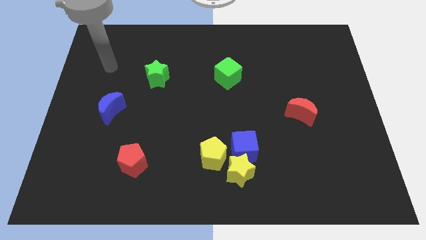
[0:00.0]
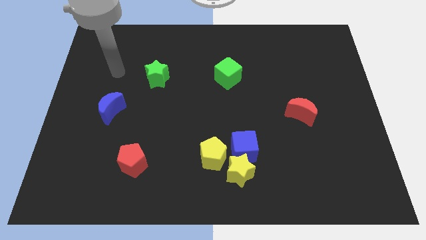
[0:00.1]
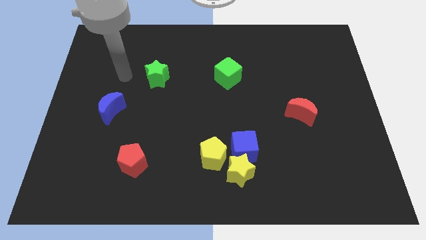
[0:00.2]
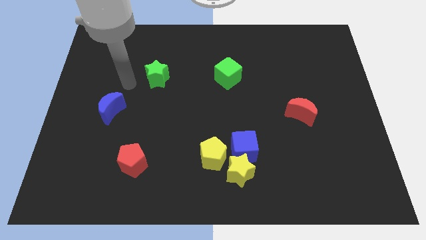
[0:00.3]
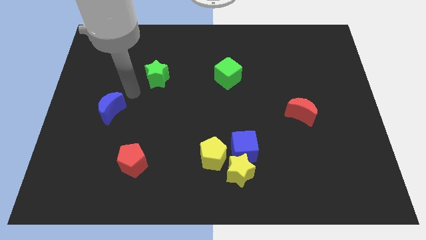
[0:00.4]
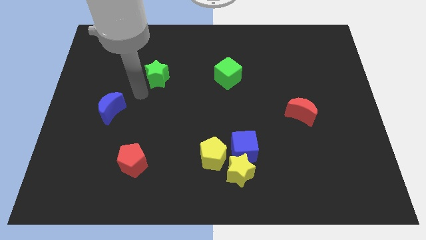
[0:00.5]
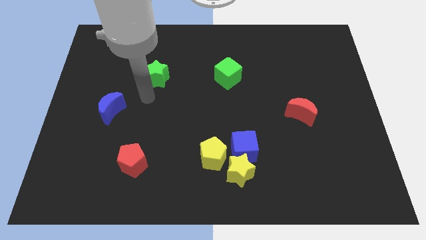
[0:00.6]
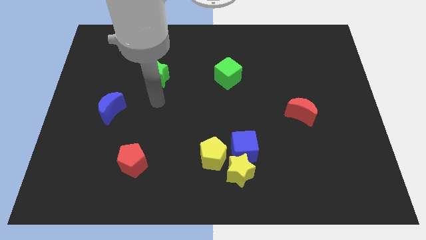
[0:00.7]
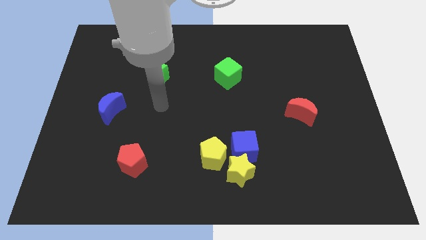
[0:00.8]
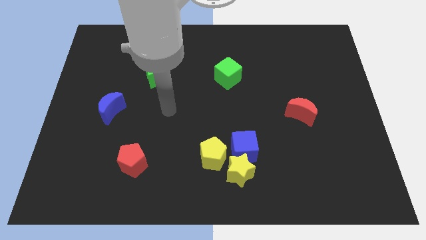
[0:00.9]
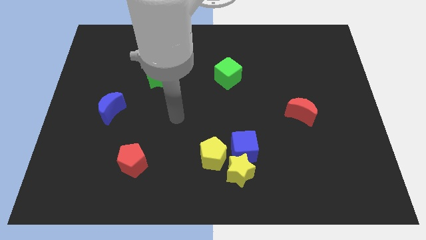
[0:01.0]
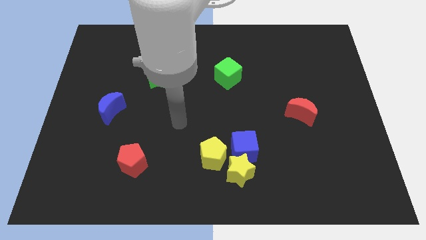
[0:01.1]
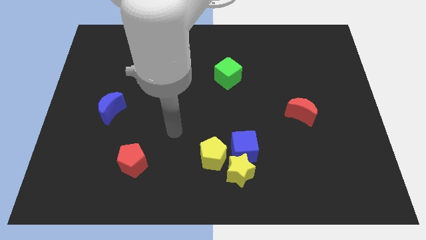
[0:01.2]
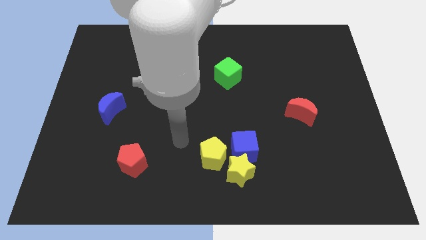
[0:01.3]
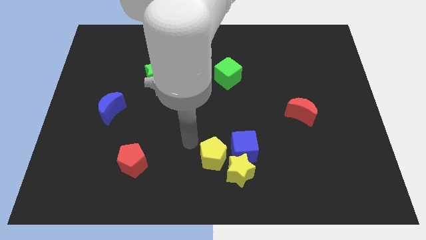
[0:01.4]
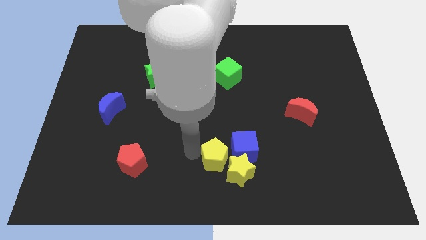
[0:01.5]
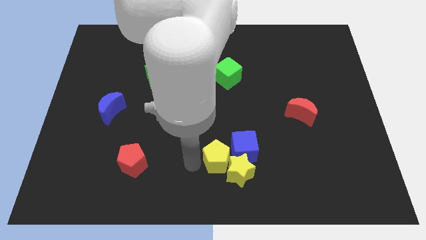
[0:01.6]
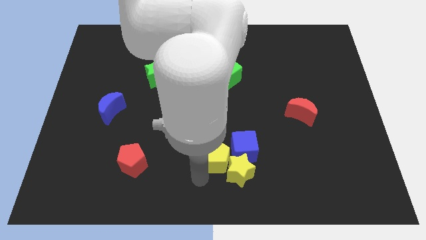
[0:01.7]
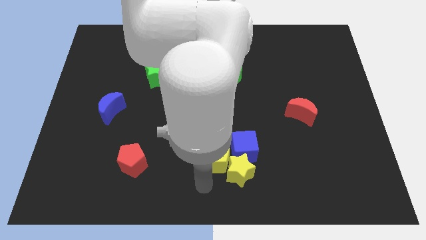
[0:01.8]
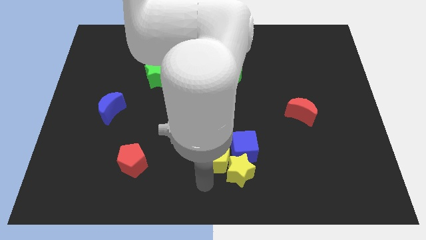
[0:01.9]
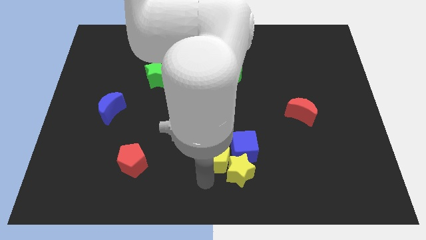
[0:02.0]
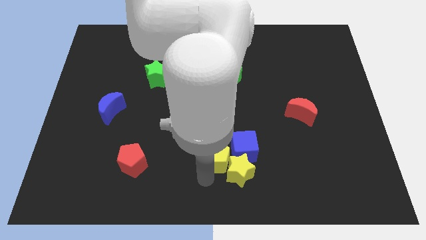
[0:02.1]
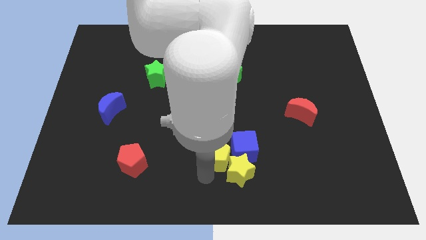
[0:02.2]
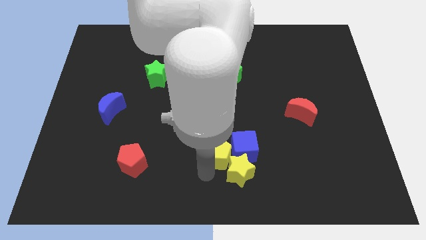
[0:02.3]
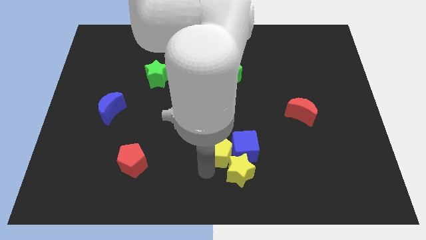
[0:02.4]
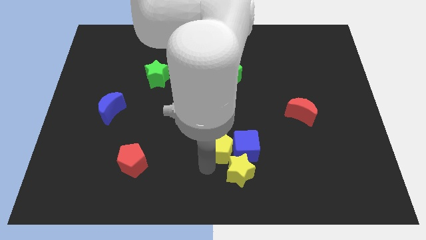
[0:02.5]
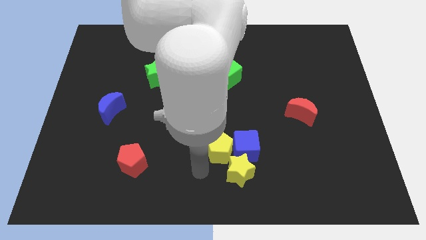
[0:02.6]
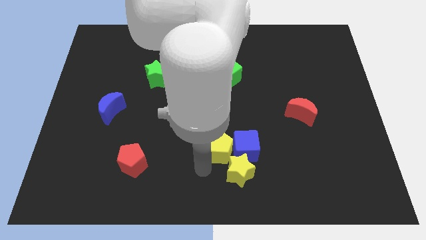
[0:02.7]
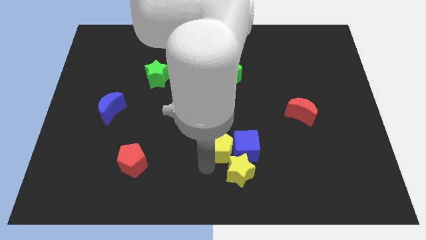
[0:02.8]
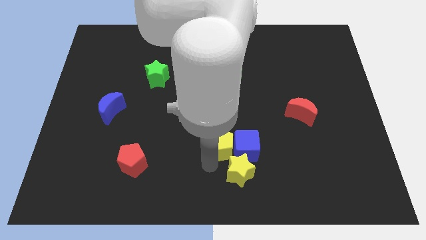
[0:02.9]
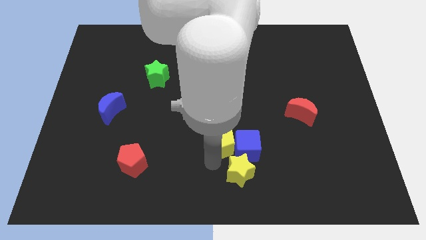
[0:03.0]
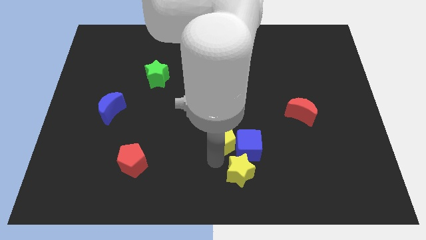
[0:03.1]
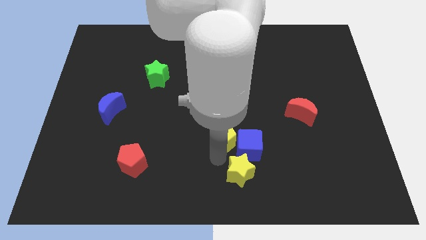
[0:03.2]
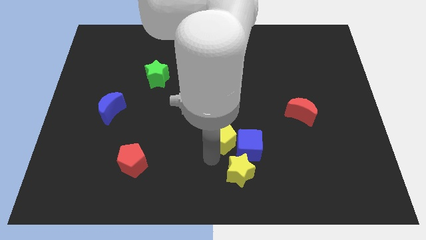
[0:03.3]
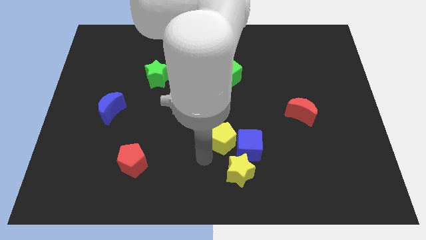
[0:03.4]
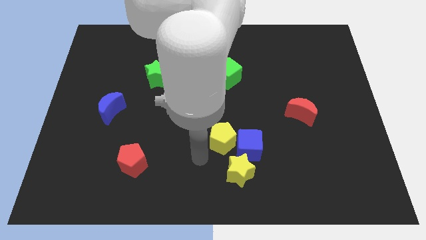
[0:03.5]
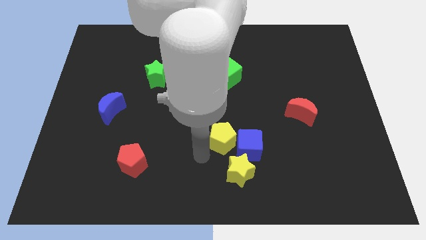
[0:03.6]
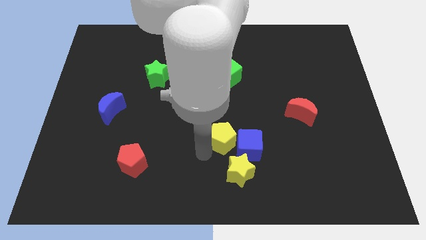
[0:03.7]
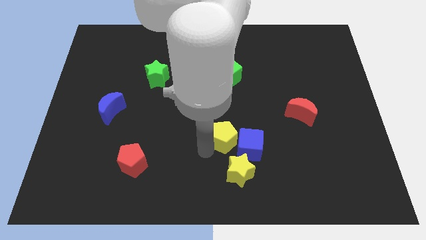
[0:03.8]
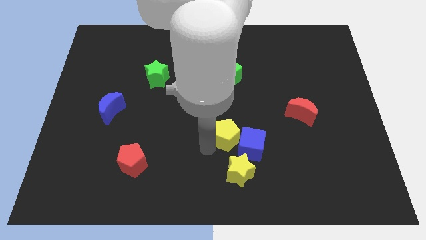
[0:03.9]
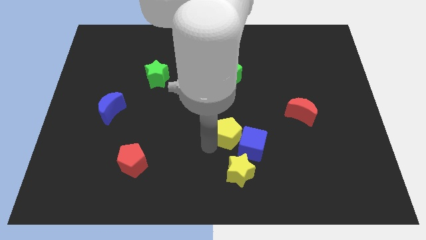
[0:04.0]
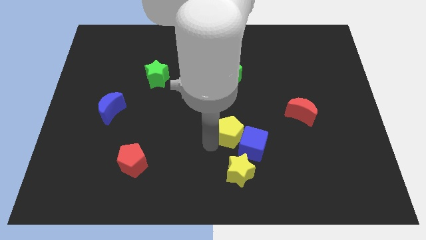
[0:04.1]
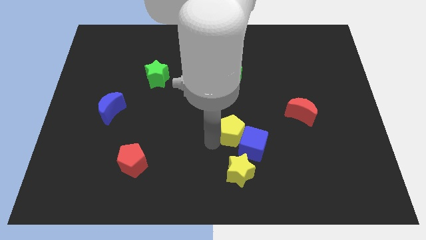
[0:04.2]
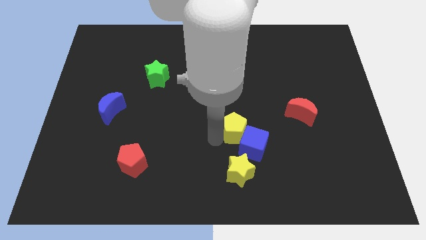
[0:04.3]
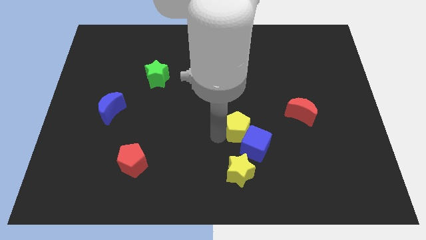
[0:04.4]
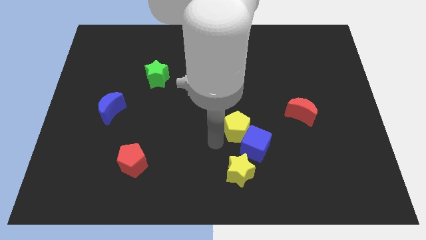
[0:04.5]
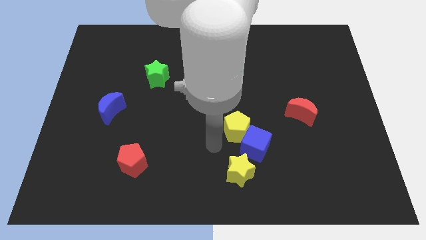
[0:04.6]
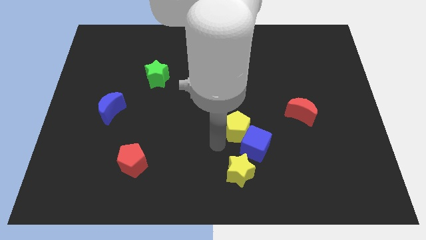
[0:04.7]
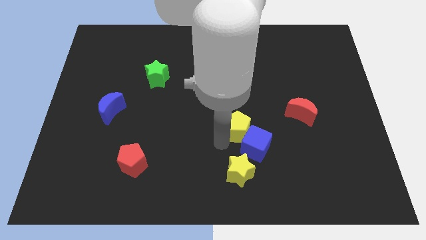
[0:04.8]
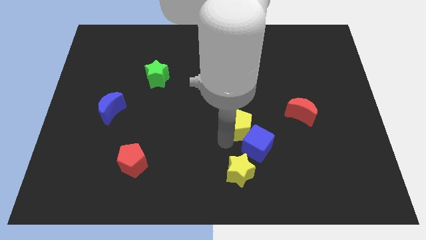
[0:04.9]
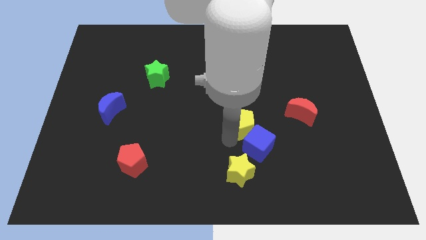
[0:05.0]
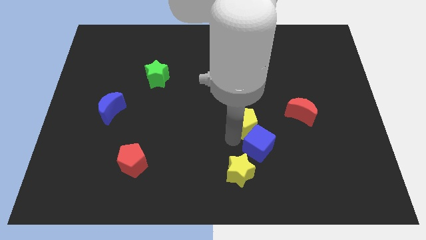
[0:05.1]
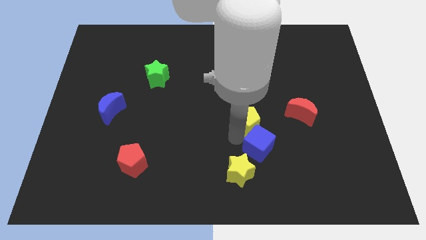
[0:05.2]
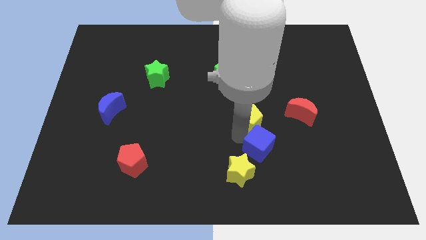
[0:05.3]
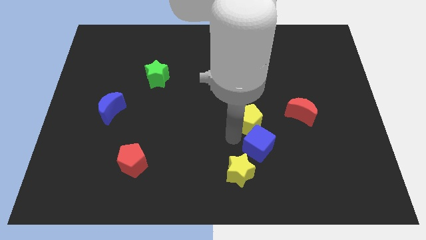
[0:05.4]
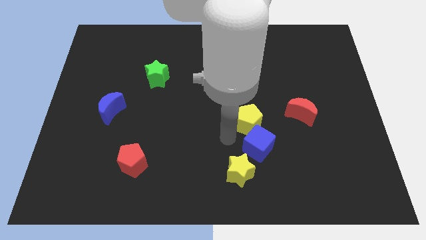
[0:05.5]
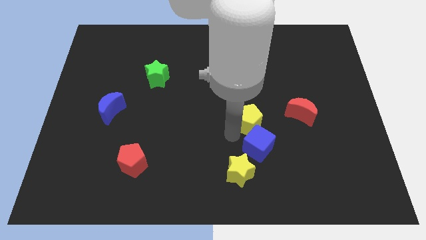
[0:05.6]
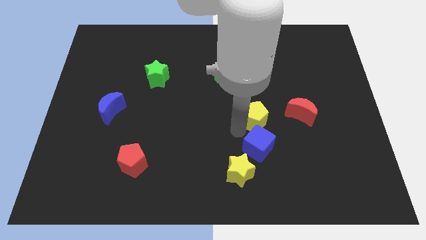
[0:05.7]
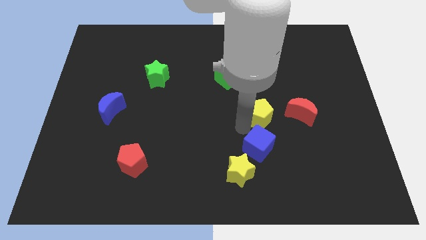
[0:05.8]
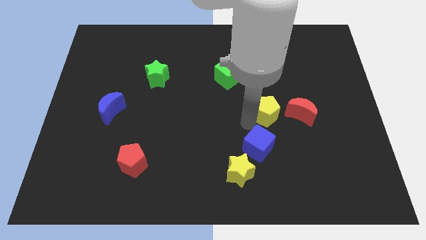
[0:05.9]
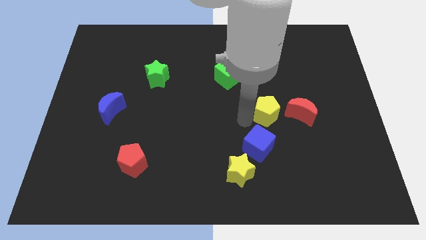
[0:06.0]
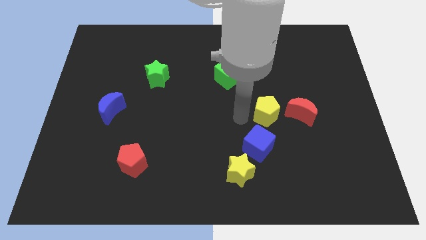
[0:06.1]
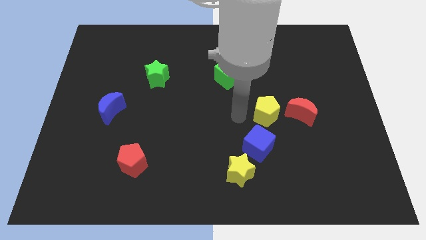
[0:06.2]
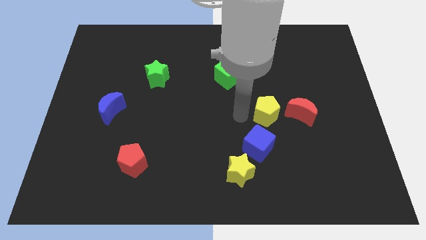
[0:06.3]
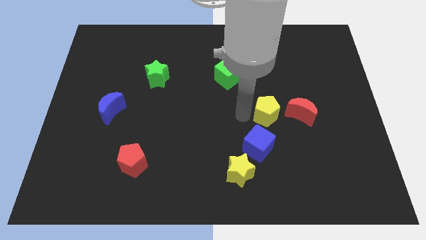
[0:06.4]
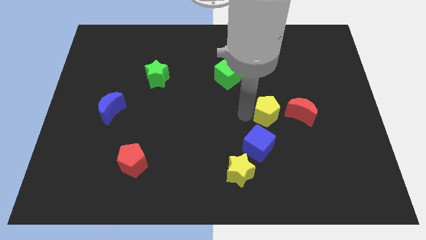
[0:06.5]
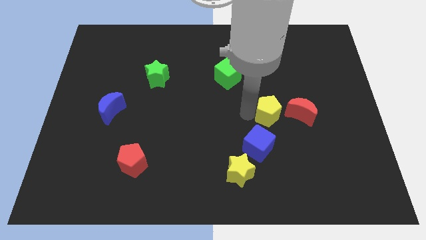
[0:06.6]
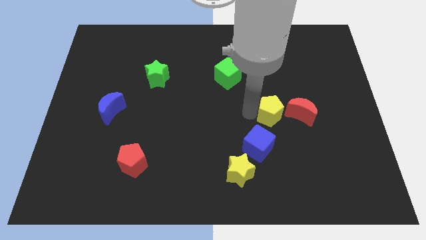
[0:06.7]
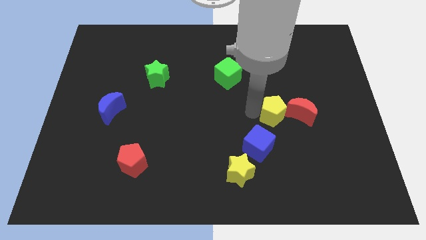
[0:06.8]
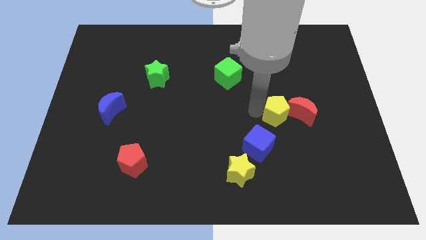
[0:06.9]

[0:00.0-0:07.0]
push the yellow pentagon next to the red moon

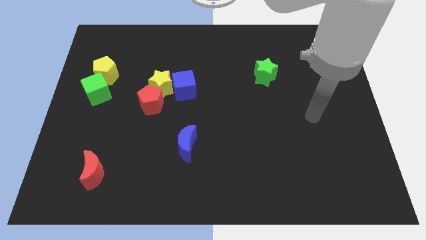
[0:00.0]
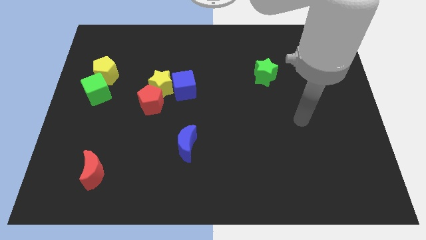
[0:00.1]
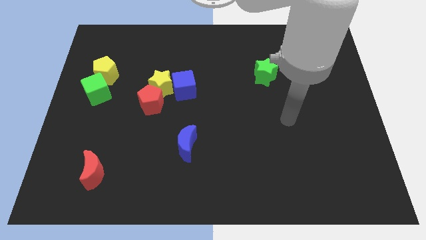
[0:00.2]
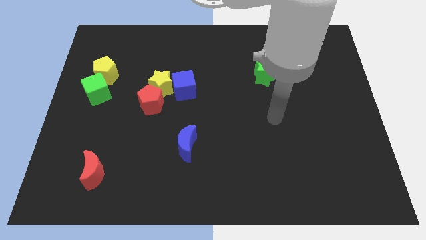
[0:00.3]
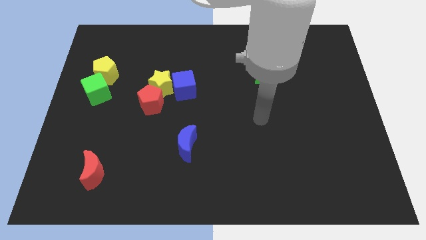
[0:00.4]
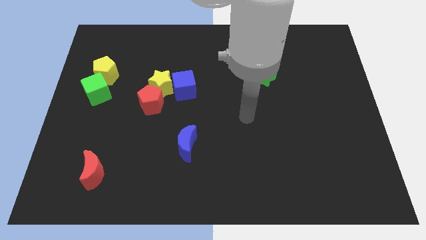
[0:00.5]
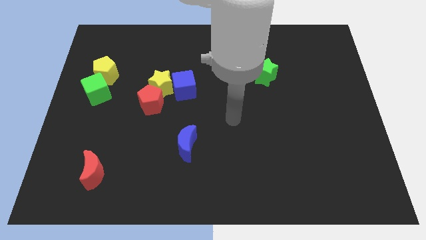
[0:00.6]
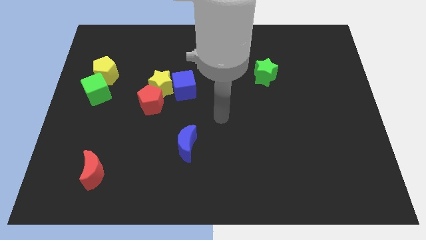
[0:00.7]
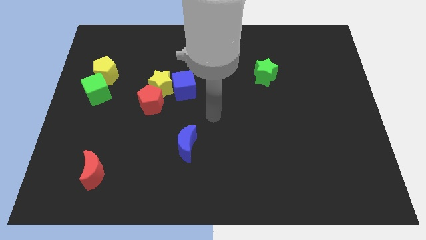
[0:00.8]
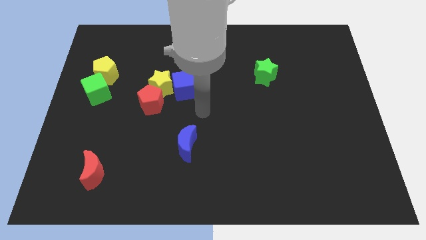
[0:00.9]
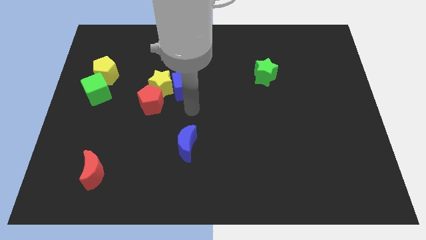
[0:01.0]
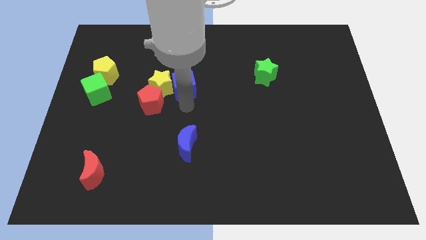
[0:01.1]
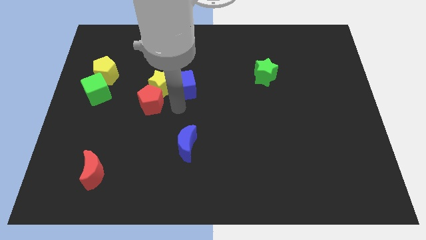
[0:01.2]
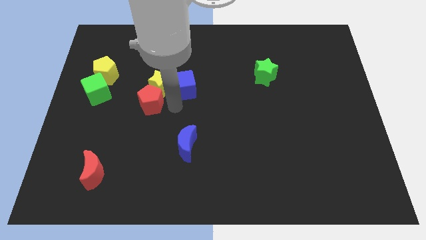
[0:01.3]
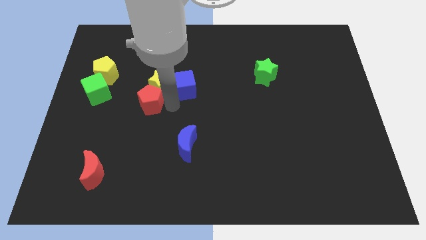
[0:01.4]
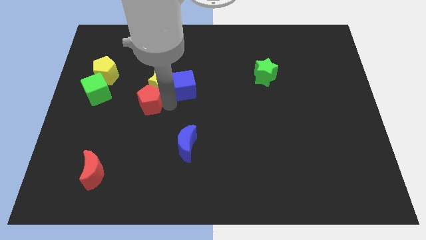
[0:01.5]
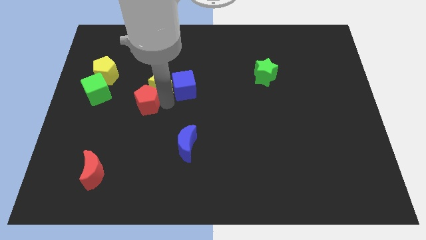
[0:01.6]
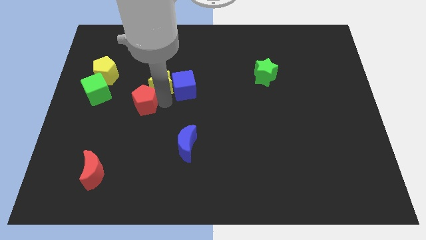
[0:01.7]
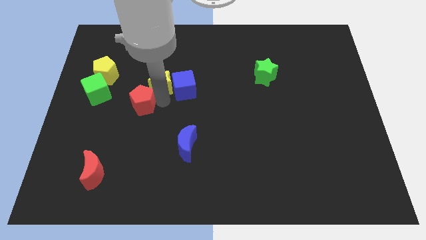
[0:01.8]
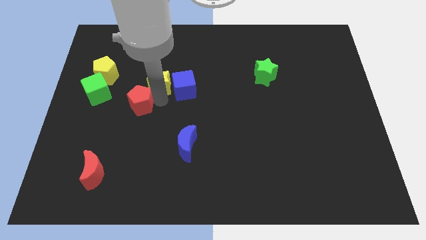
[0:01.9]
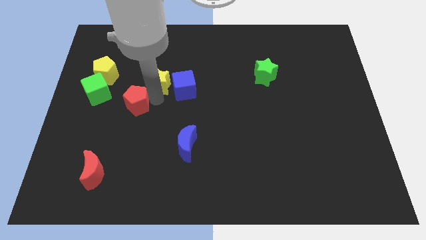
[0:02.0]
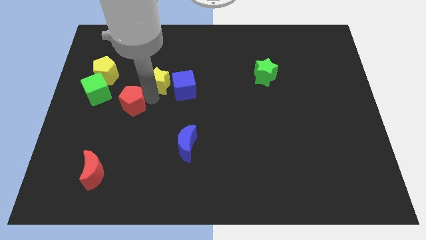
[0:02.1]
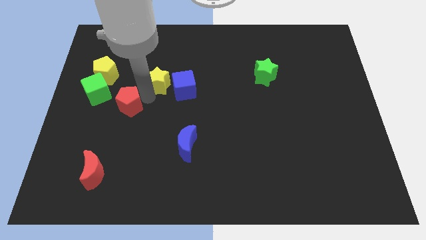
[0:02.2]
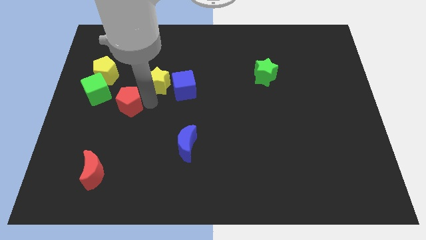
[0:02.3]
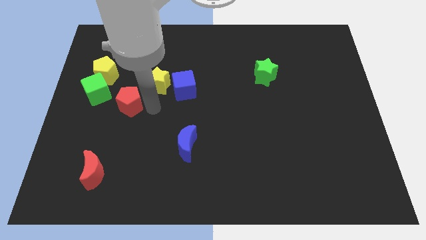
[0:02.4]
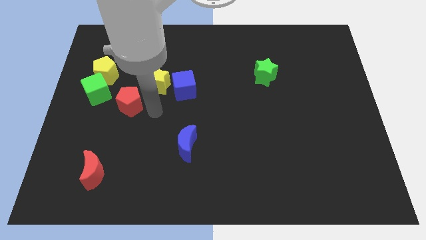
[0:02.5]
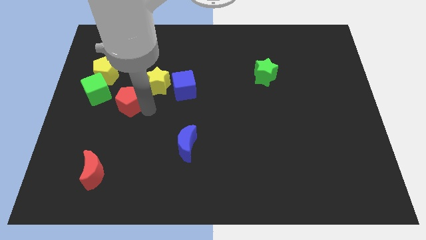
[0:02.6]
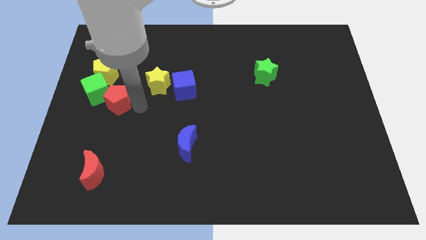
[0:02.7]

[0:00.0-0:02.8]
put the red pentagon to the green cube
